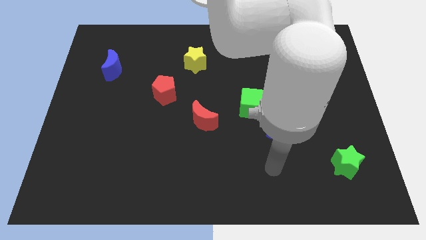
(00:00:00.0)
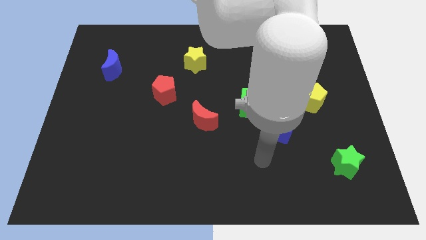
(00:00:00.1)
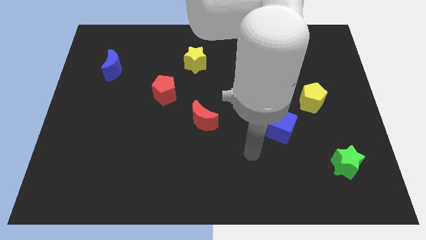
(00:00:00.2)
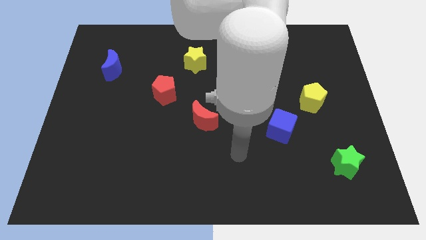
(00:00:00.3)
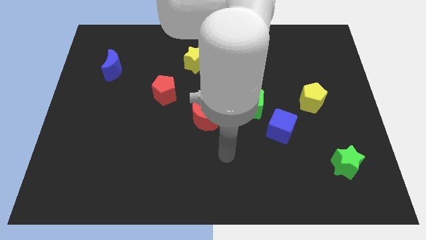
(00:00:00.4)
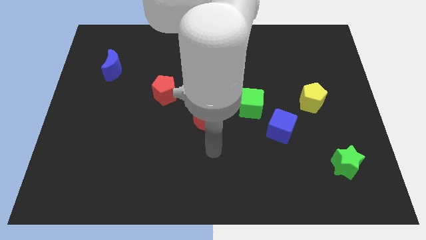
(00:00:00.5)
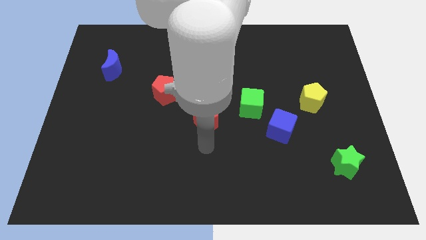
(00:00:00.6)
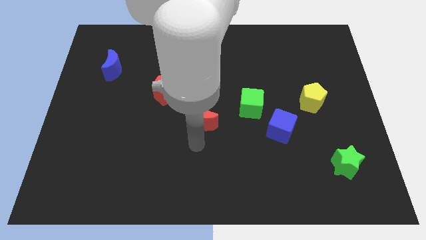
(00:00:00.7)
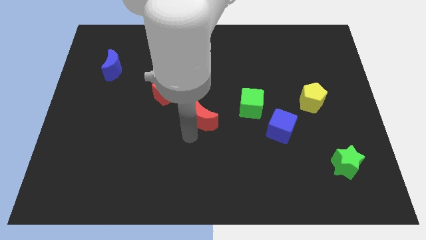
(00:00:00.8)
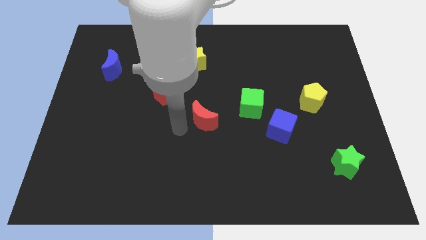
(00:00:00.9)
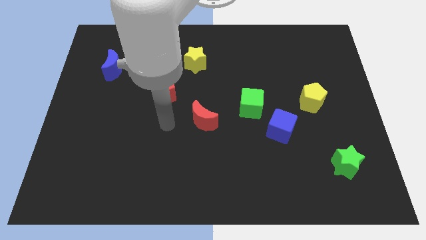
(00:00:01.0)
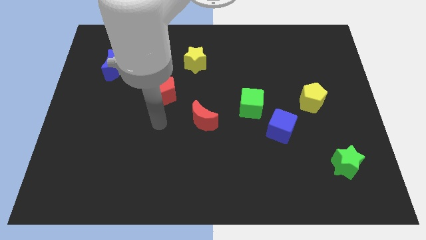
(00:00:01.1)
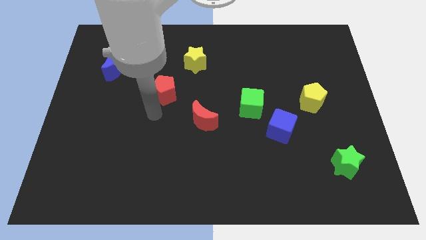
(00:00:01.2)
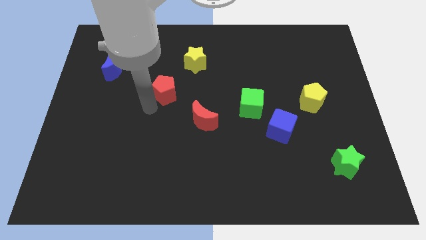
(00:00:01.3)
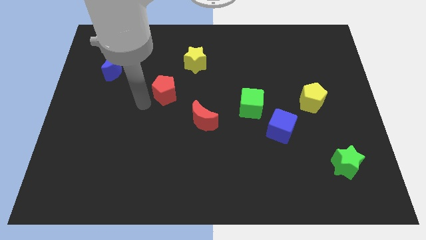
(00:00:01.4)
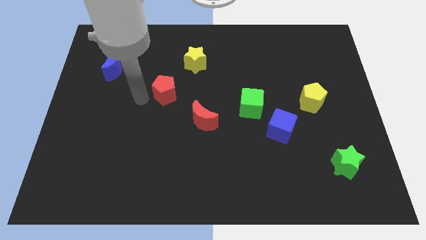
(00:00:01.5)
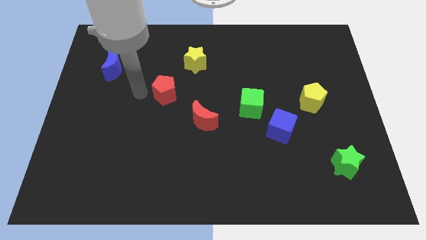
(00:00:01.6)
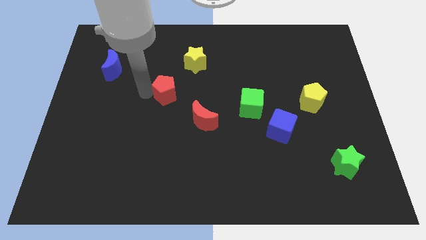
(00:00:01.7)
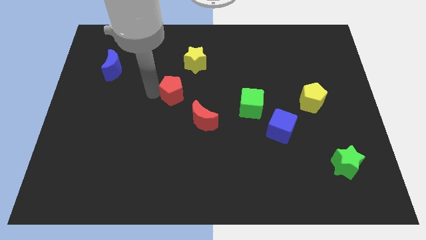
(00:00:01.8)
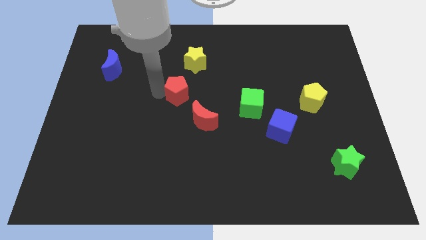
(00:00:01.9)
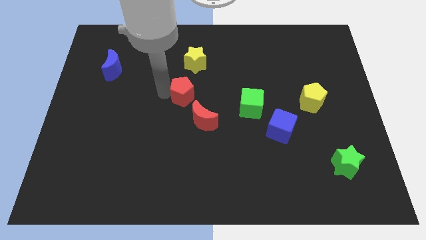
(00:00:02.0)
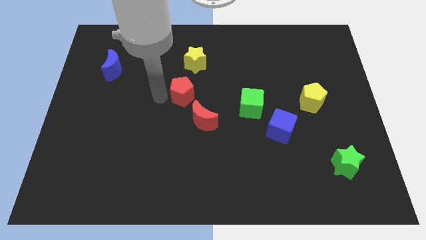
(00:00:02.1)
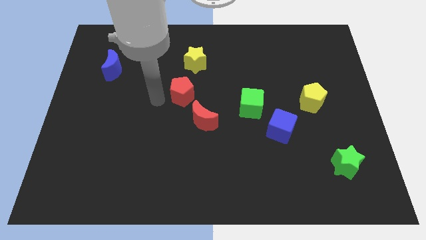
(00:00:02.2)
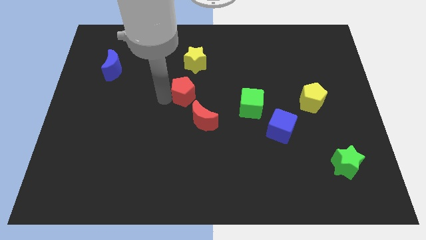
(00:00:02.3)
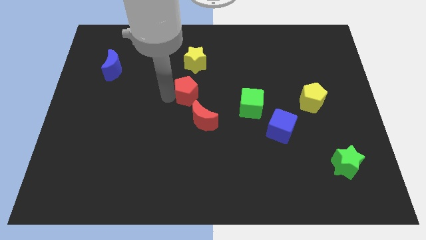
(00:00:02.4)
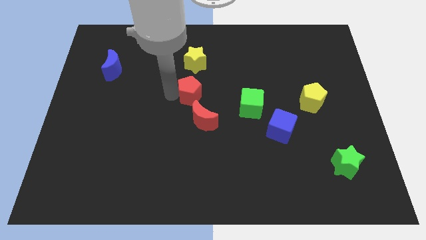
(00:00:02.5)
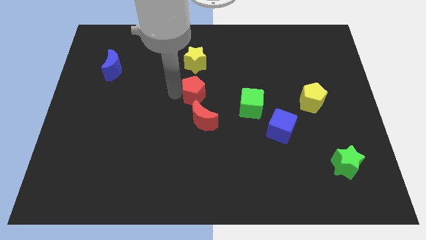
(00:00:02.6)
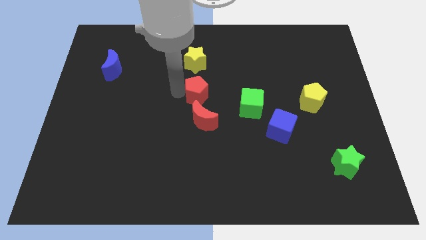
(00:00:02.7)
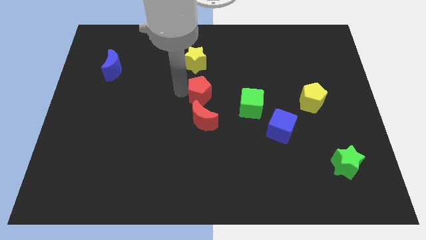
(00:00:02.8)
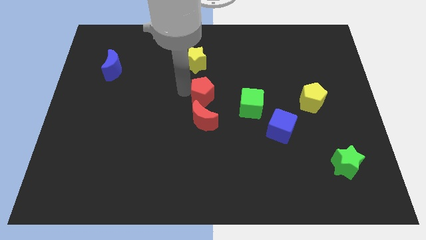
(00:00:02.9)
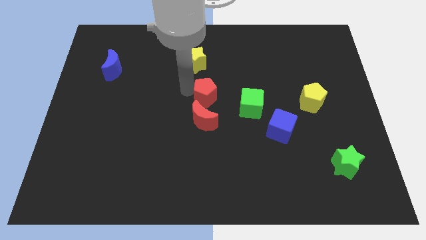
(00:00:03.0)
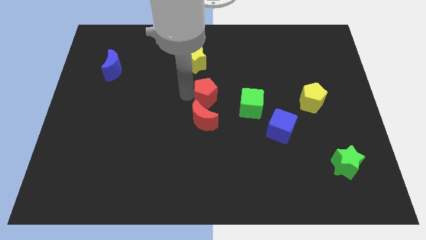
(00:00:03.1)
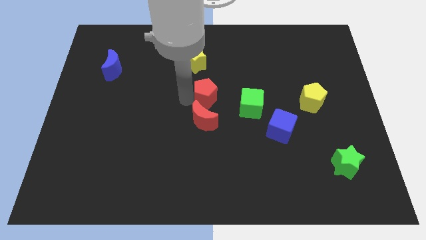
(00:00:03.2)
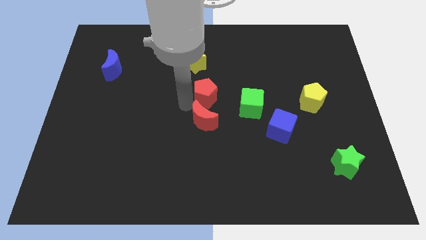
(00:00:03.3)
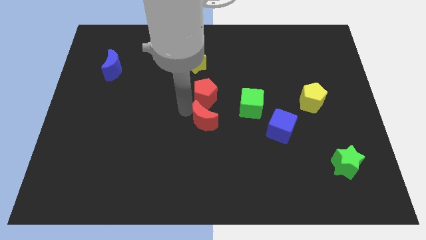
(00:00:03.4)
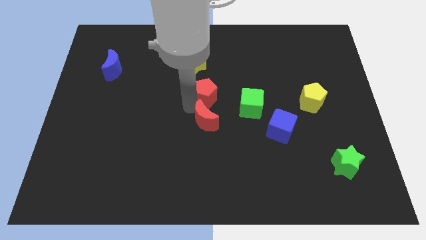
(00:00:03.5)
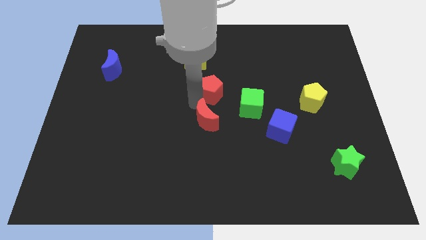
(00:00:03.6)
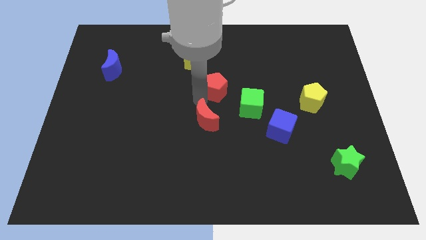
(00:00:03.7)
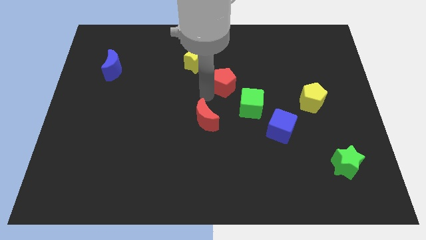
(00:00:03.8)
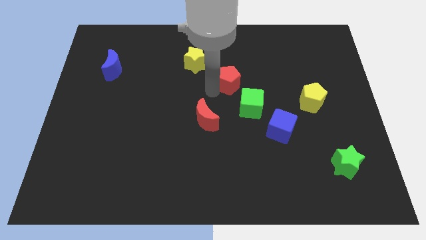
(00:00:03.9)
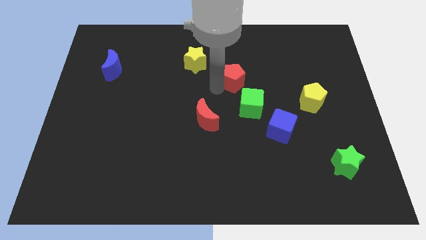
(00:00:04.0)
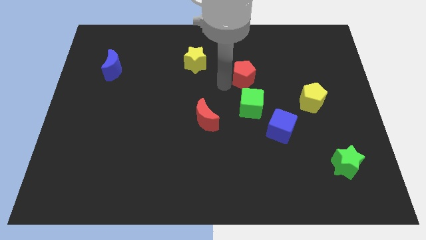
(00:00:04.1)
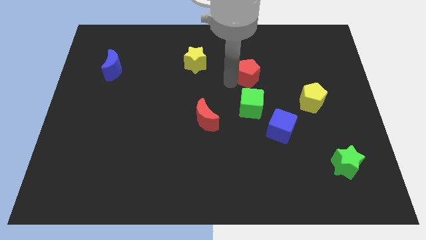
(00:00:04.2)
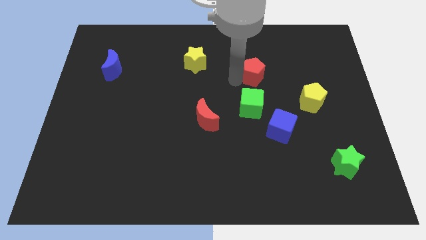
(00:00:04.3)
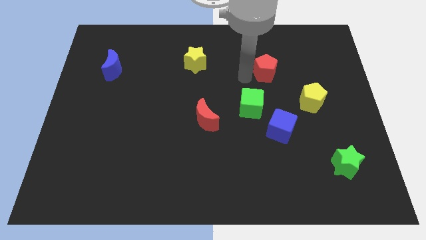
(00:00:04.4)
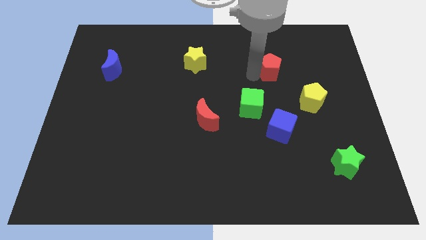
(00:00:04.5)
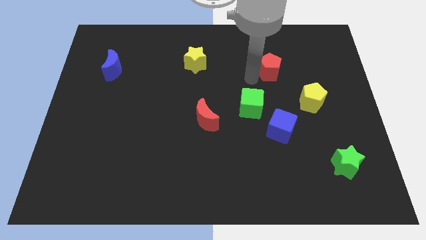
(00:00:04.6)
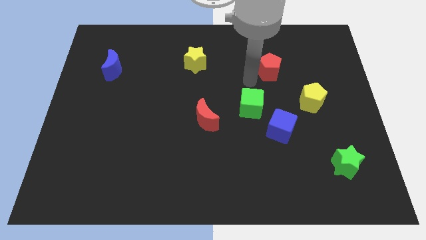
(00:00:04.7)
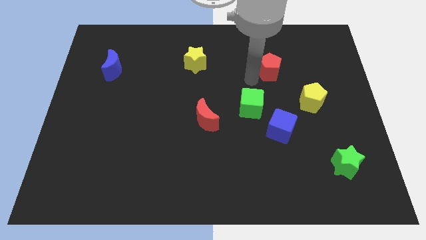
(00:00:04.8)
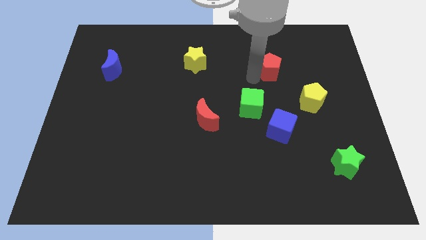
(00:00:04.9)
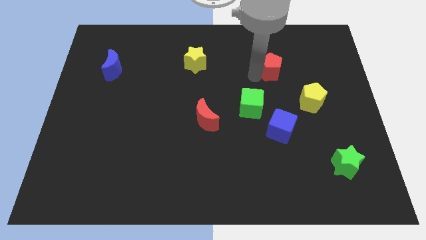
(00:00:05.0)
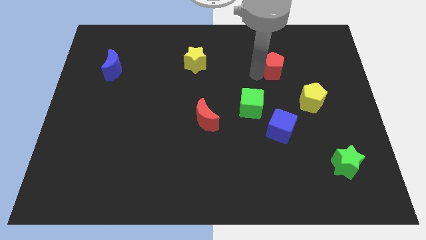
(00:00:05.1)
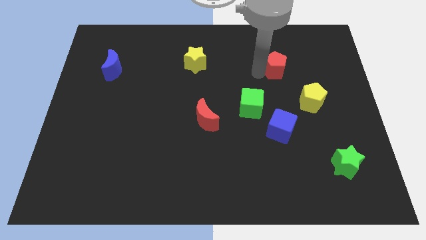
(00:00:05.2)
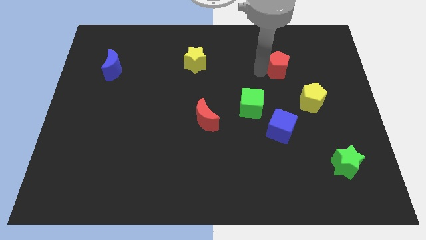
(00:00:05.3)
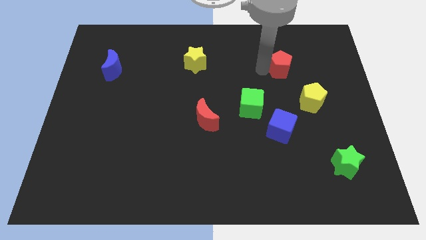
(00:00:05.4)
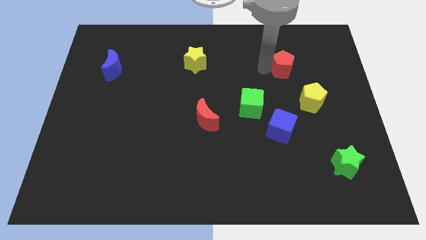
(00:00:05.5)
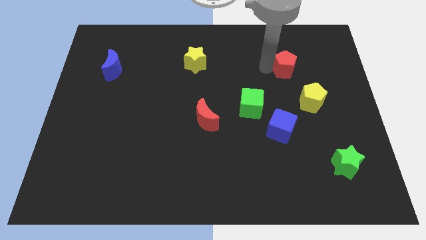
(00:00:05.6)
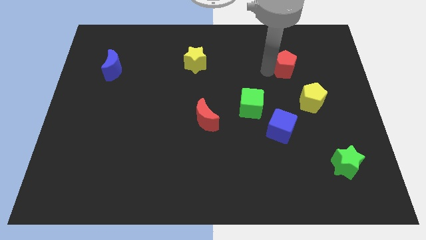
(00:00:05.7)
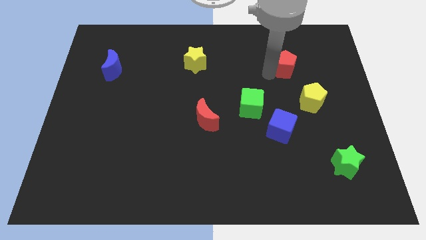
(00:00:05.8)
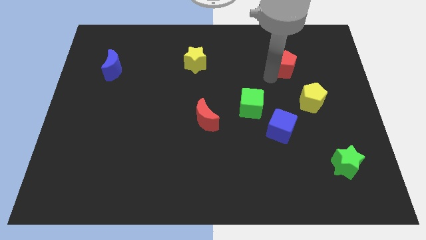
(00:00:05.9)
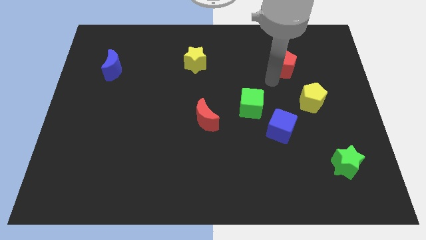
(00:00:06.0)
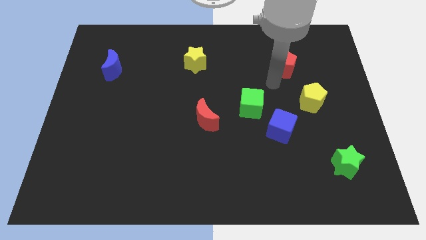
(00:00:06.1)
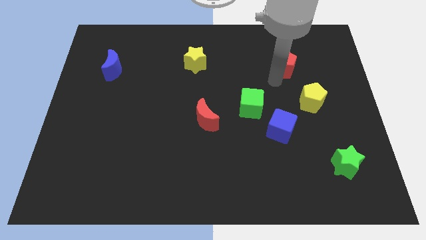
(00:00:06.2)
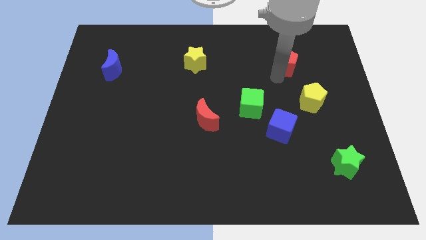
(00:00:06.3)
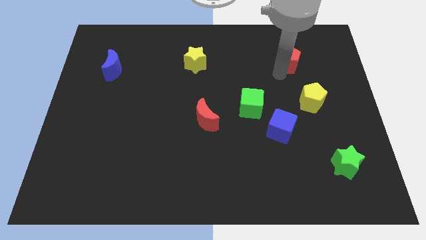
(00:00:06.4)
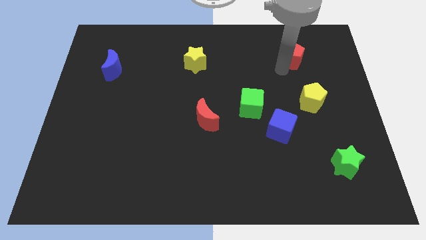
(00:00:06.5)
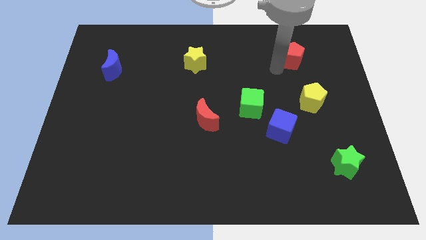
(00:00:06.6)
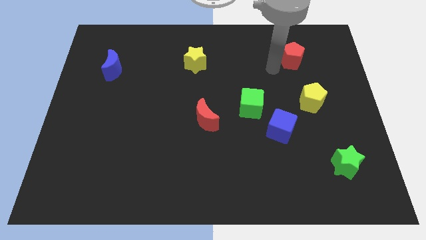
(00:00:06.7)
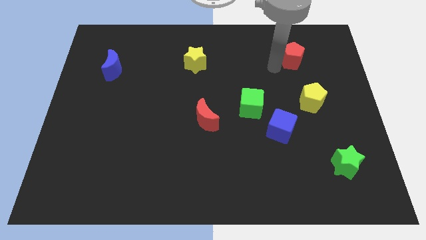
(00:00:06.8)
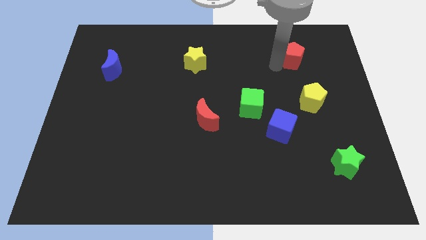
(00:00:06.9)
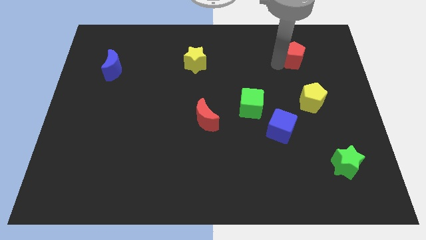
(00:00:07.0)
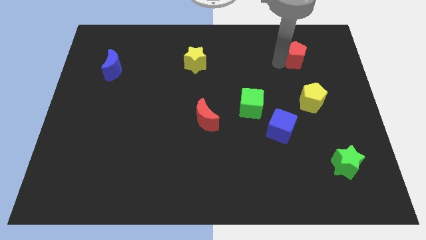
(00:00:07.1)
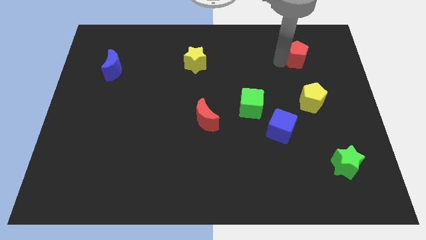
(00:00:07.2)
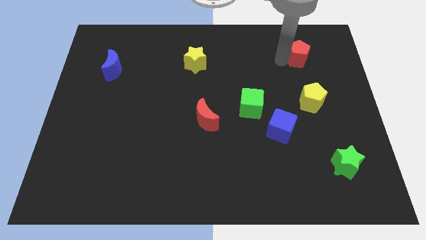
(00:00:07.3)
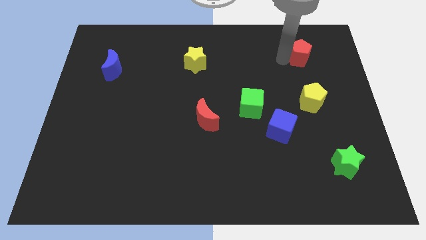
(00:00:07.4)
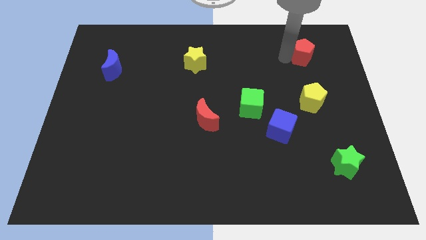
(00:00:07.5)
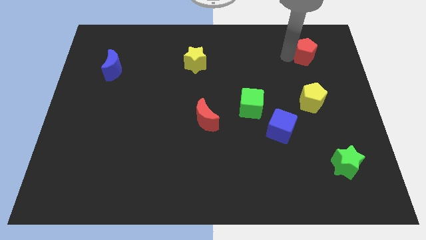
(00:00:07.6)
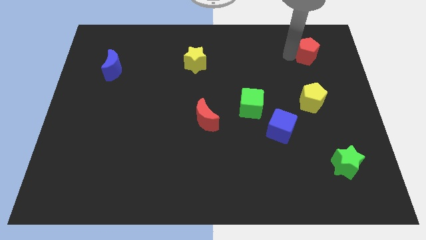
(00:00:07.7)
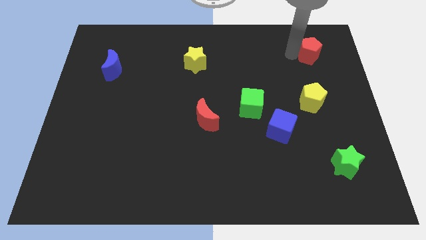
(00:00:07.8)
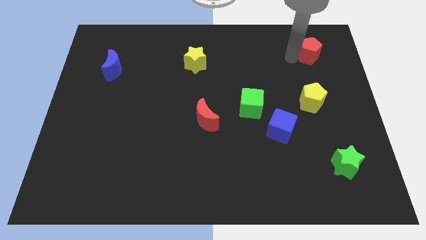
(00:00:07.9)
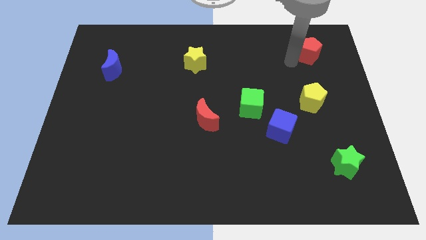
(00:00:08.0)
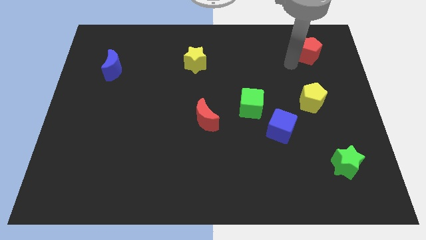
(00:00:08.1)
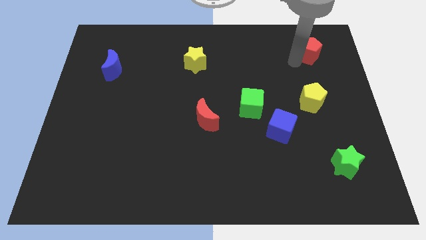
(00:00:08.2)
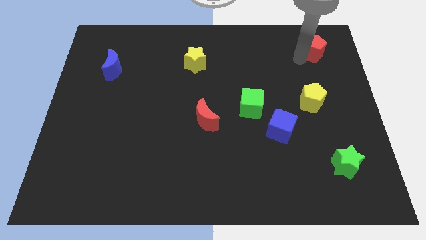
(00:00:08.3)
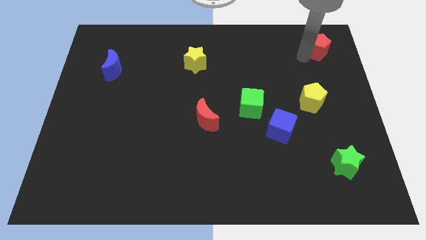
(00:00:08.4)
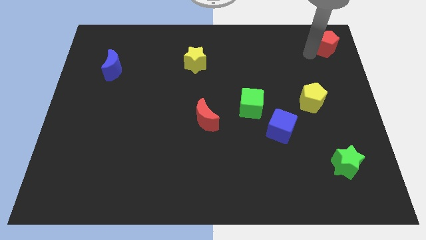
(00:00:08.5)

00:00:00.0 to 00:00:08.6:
put the red pentagon to the top right of the board
